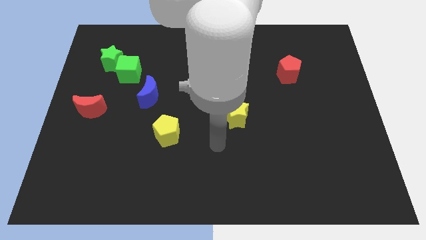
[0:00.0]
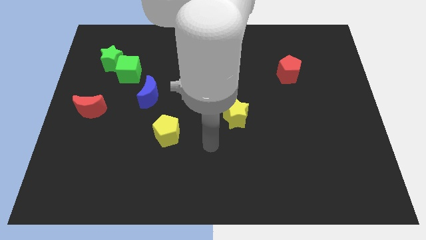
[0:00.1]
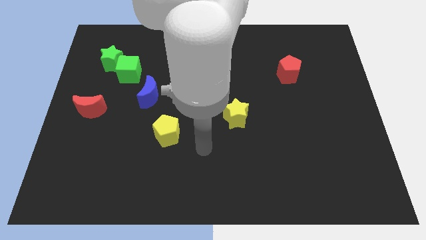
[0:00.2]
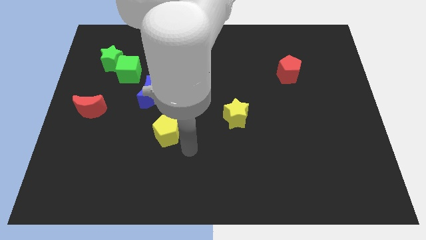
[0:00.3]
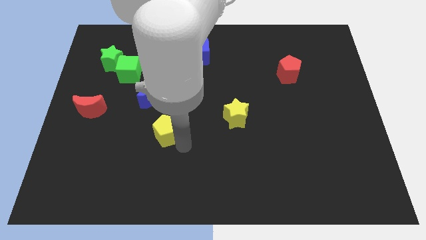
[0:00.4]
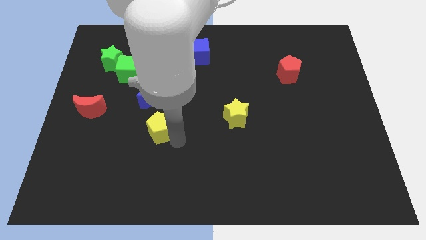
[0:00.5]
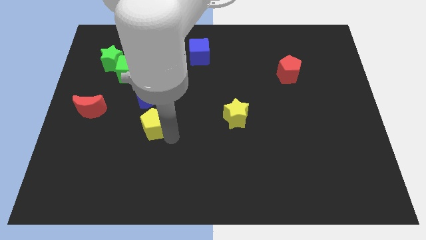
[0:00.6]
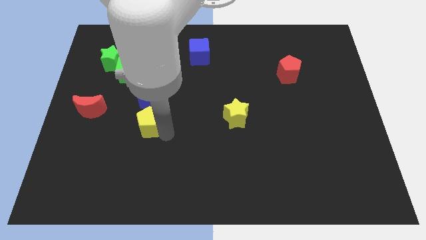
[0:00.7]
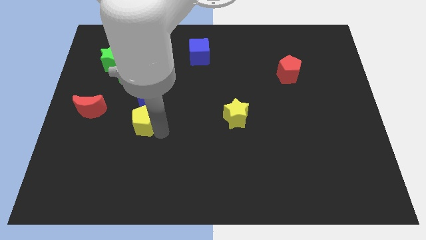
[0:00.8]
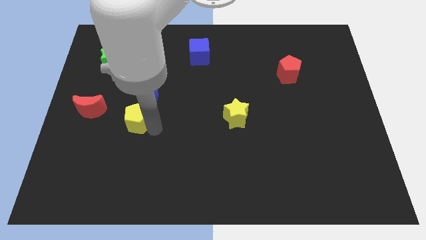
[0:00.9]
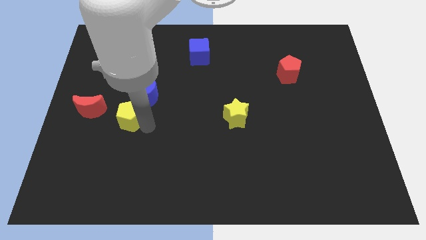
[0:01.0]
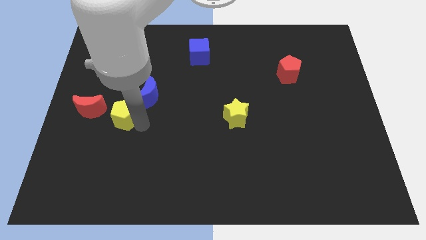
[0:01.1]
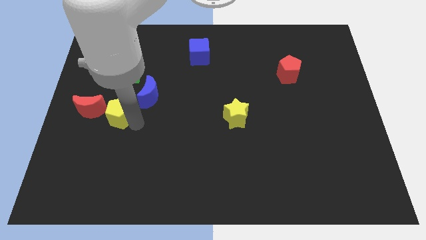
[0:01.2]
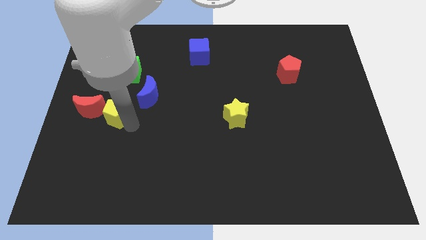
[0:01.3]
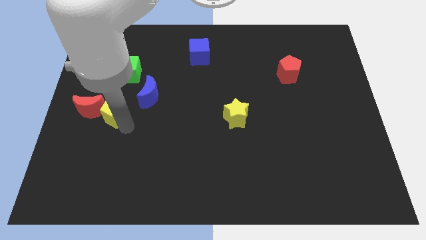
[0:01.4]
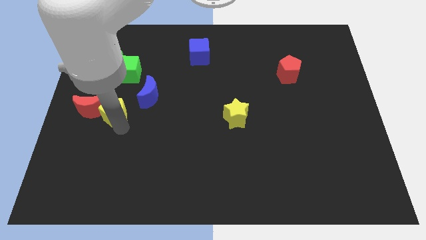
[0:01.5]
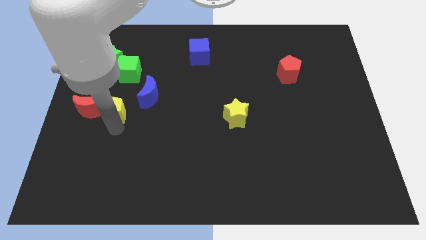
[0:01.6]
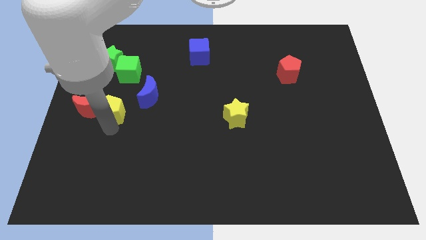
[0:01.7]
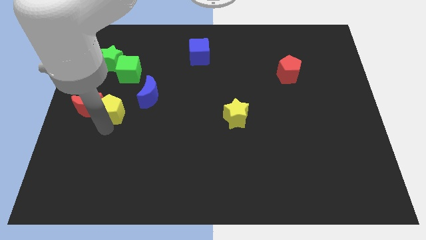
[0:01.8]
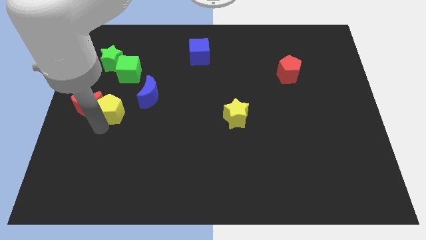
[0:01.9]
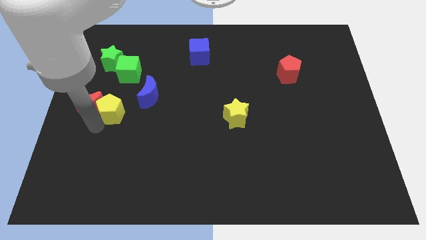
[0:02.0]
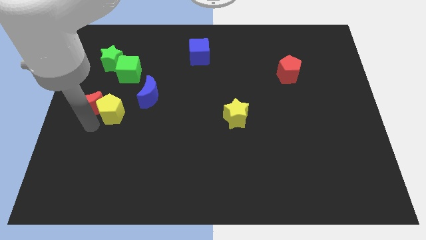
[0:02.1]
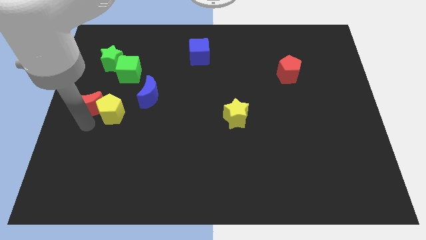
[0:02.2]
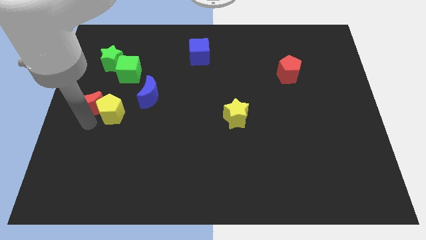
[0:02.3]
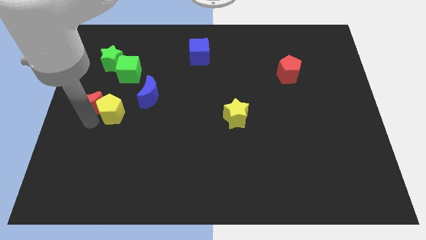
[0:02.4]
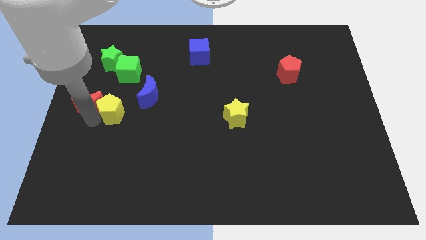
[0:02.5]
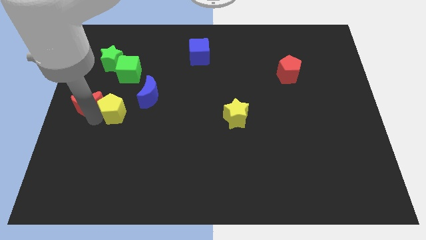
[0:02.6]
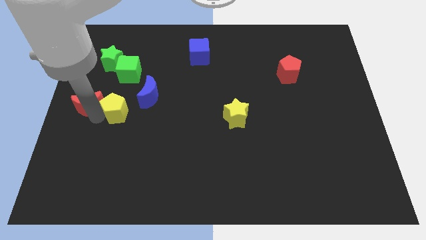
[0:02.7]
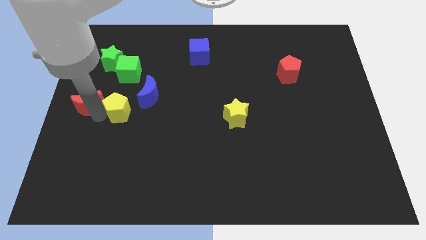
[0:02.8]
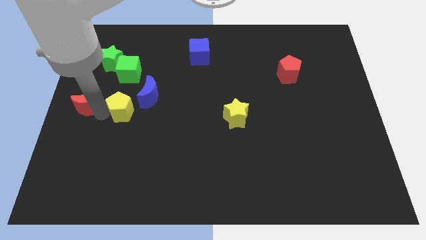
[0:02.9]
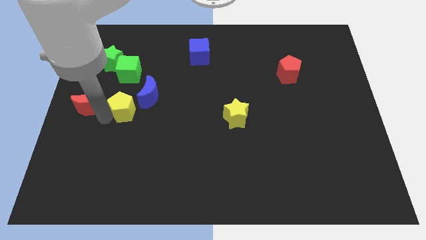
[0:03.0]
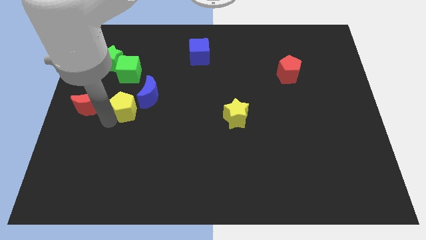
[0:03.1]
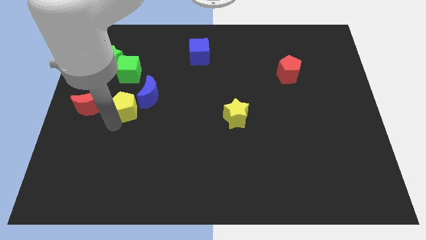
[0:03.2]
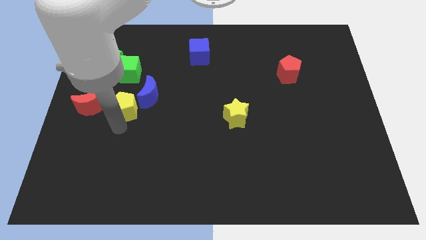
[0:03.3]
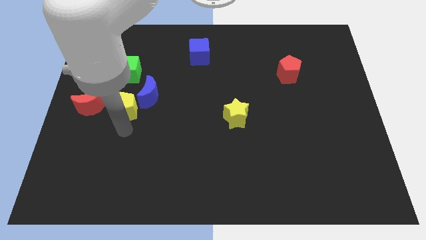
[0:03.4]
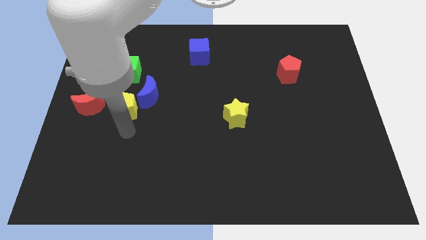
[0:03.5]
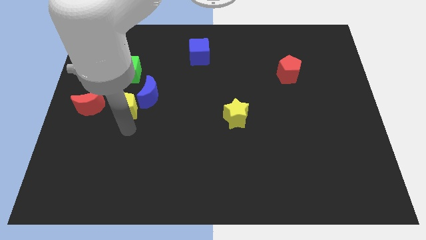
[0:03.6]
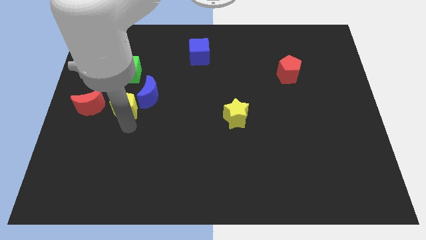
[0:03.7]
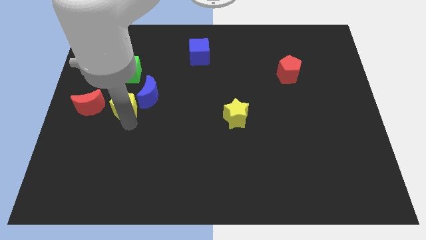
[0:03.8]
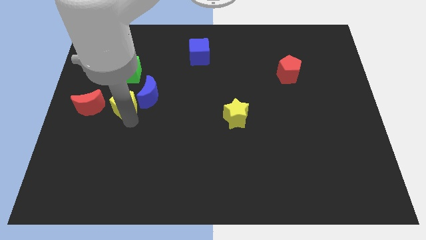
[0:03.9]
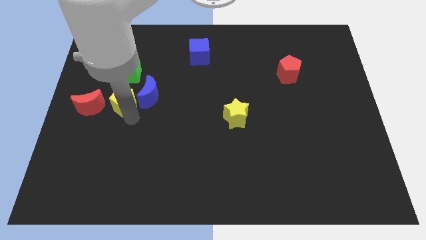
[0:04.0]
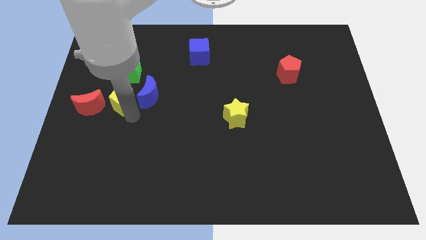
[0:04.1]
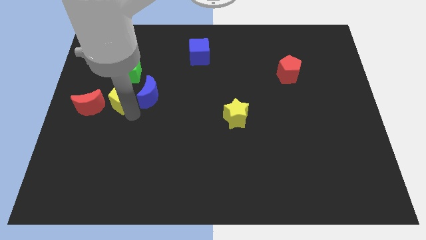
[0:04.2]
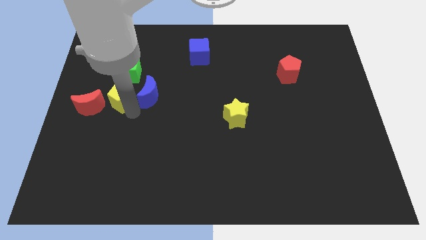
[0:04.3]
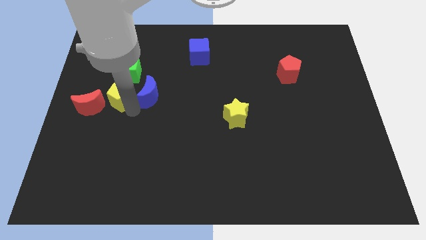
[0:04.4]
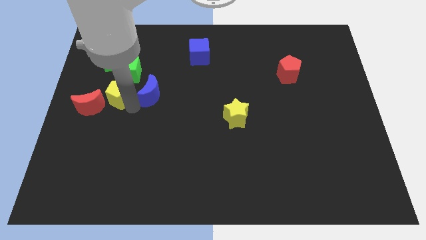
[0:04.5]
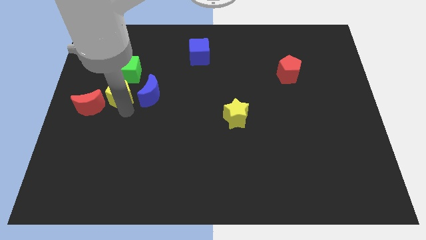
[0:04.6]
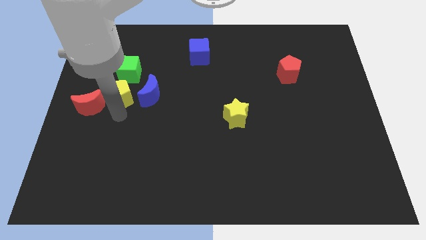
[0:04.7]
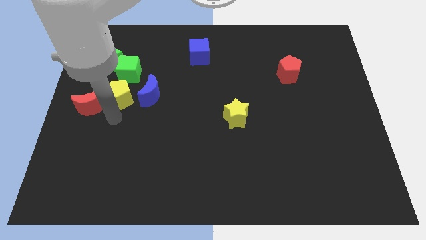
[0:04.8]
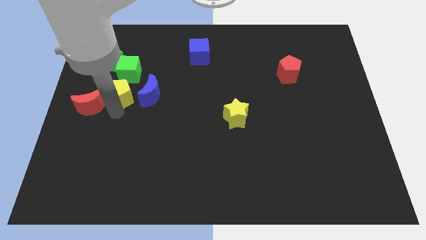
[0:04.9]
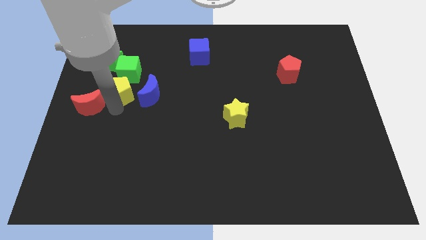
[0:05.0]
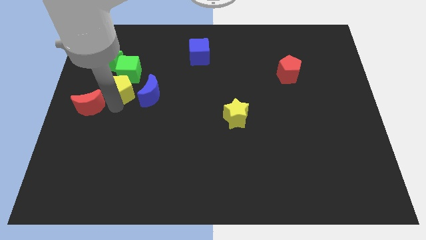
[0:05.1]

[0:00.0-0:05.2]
put the yellow pentagon towards the green cube

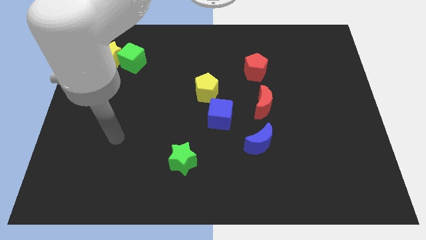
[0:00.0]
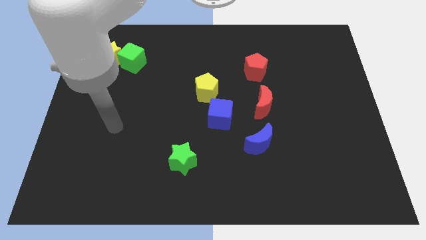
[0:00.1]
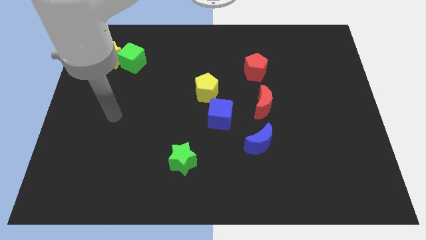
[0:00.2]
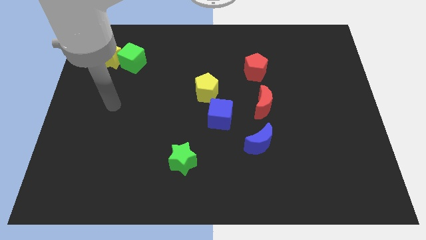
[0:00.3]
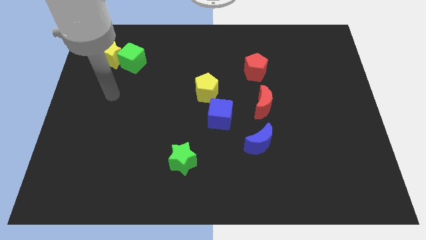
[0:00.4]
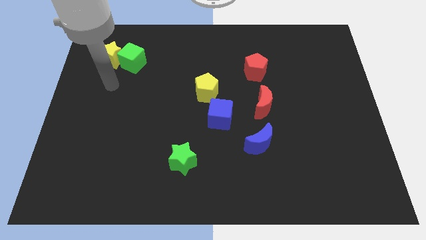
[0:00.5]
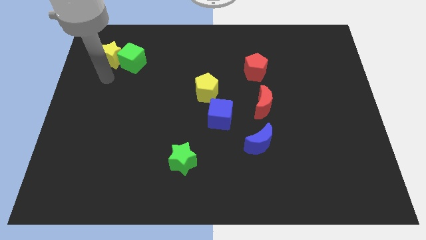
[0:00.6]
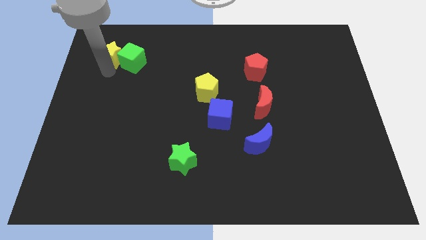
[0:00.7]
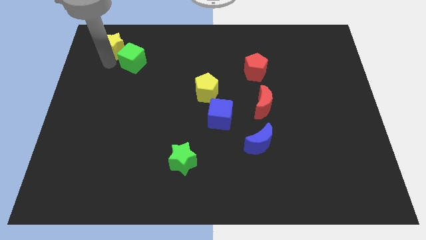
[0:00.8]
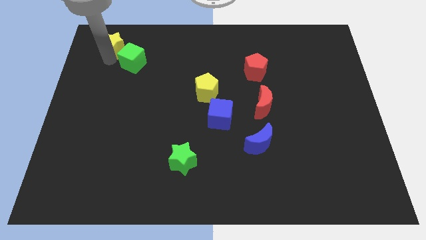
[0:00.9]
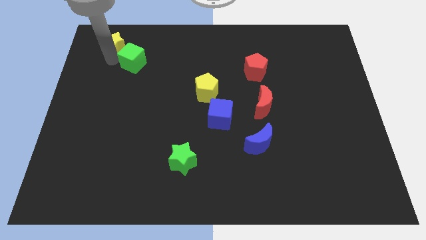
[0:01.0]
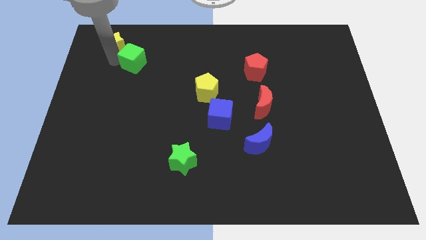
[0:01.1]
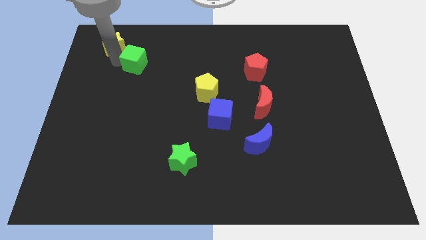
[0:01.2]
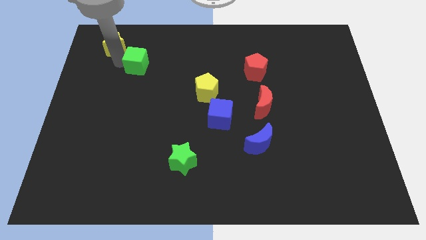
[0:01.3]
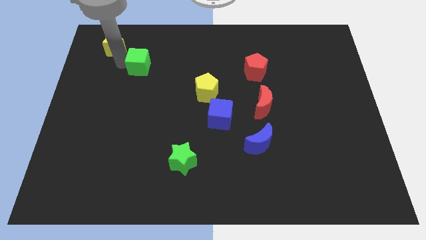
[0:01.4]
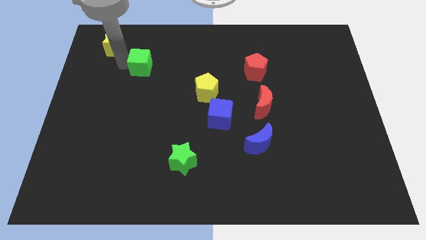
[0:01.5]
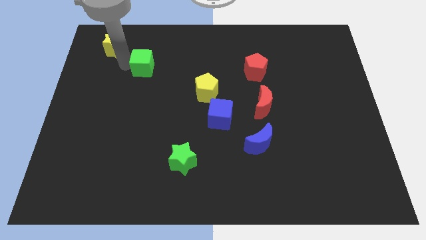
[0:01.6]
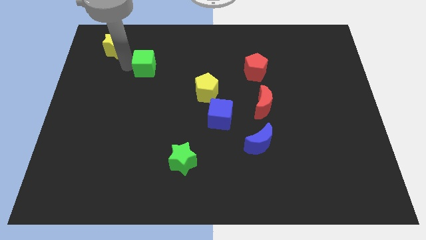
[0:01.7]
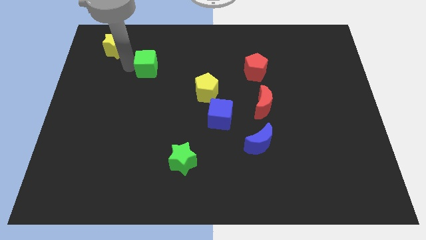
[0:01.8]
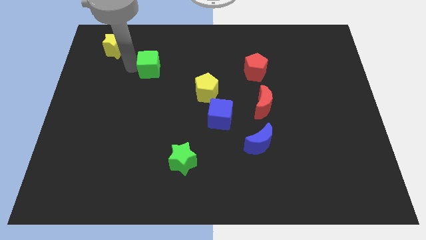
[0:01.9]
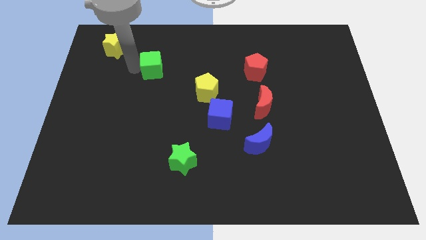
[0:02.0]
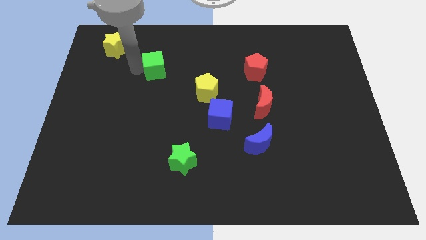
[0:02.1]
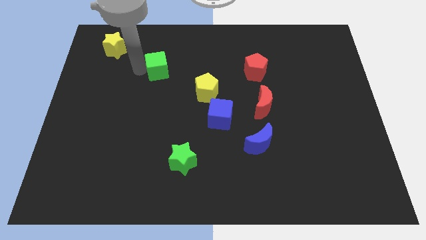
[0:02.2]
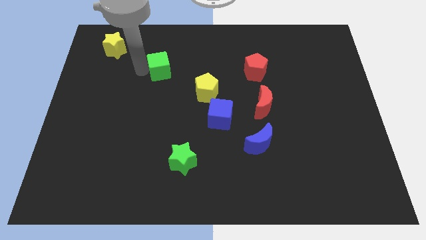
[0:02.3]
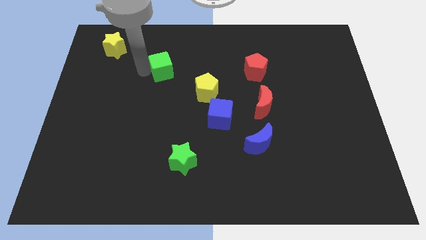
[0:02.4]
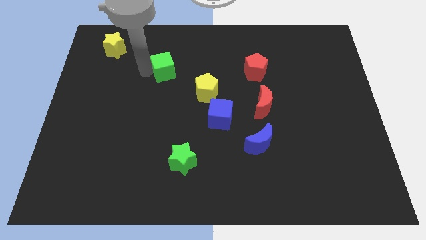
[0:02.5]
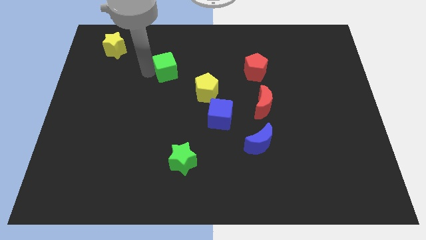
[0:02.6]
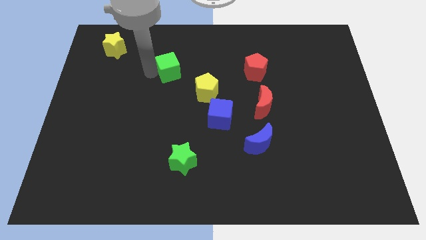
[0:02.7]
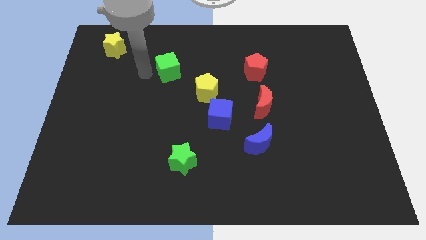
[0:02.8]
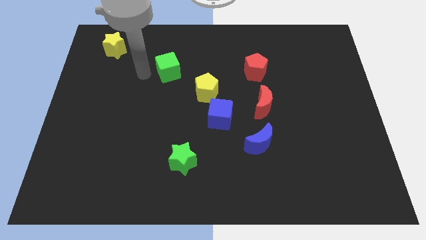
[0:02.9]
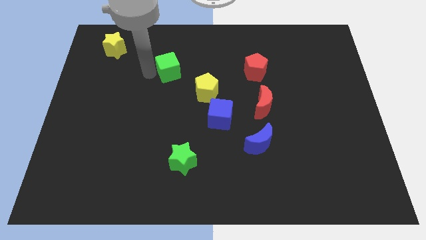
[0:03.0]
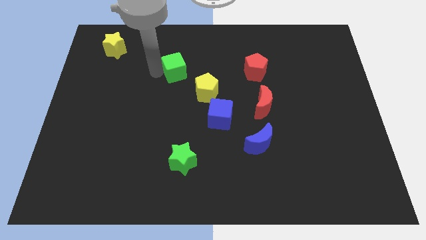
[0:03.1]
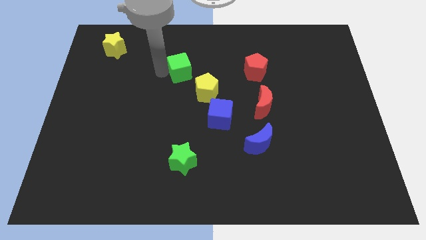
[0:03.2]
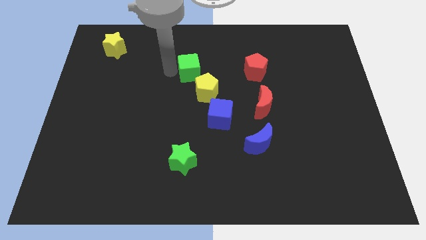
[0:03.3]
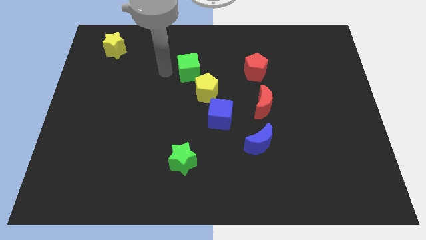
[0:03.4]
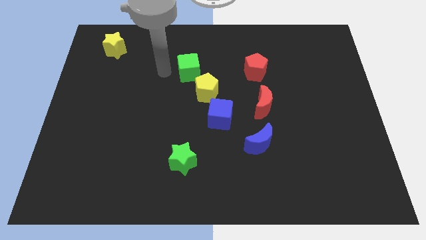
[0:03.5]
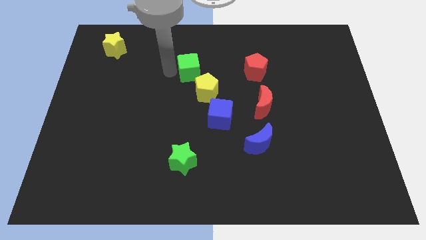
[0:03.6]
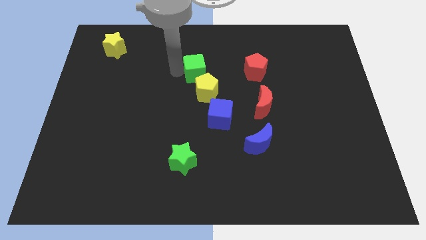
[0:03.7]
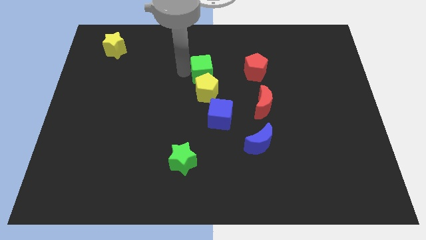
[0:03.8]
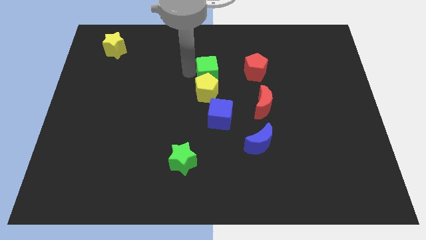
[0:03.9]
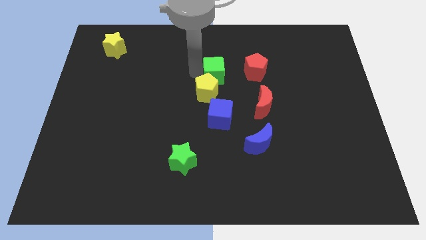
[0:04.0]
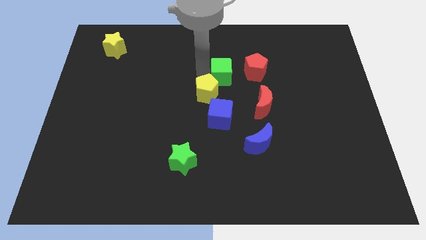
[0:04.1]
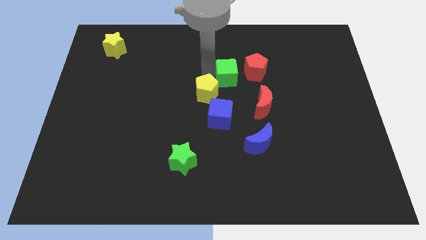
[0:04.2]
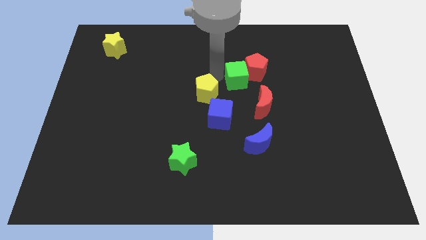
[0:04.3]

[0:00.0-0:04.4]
move the green cube to the red pentagon
